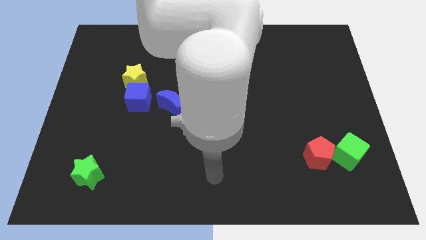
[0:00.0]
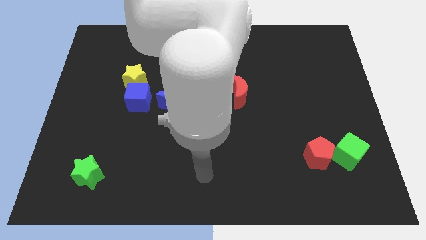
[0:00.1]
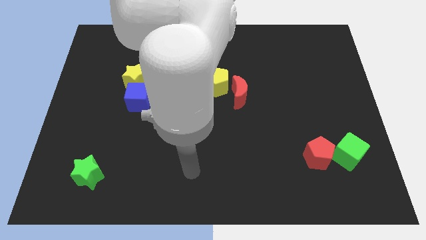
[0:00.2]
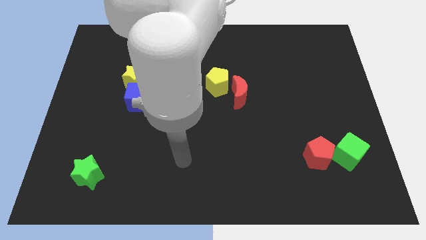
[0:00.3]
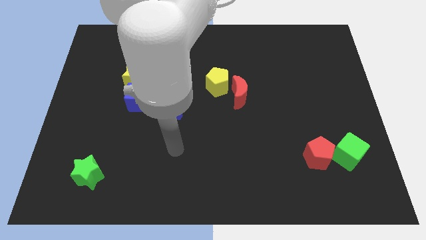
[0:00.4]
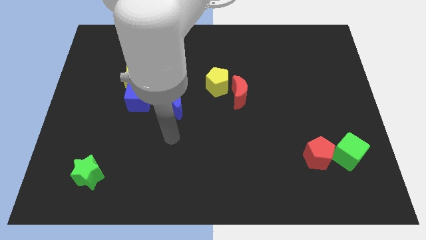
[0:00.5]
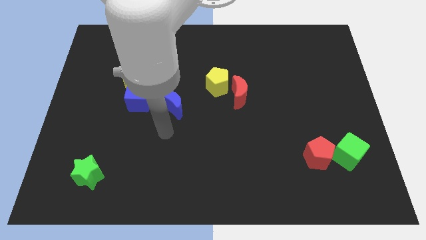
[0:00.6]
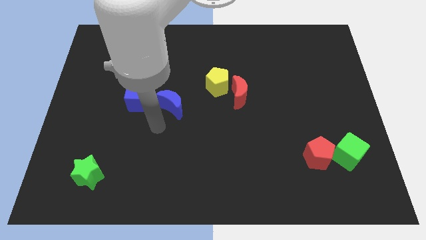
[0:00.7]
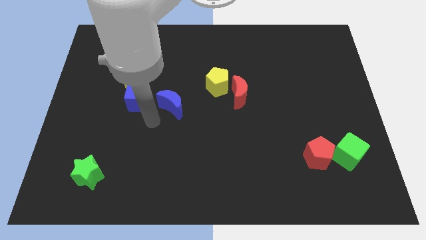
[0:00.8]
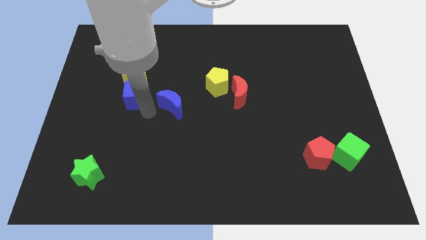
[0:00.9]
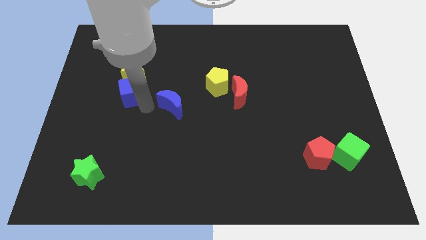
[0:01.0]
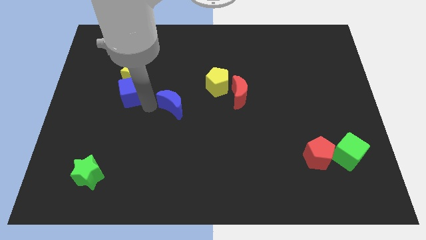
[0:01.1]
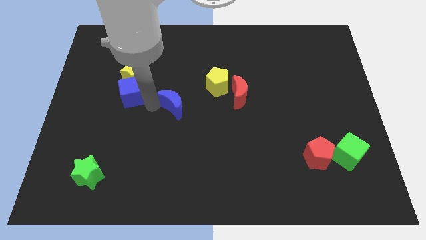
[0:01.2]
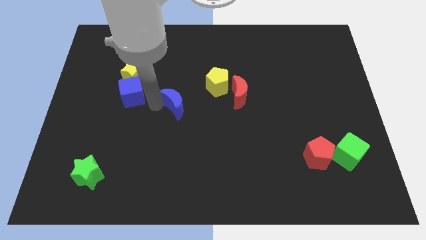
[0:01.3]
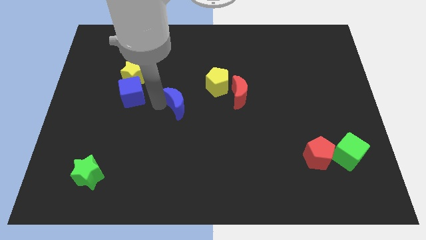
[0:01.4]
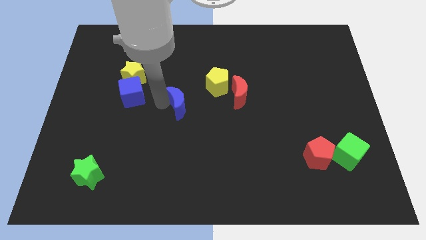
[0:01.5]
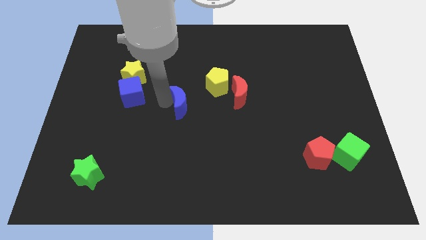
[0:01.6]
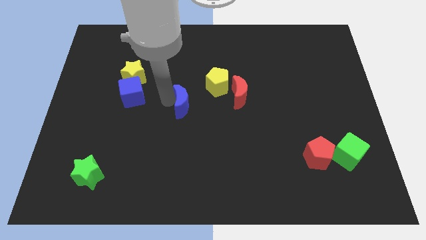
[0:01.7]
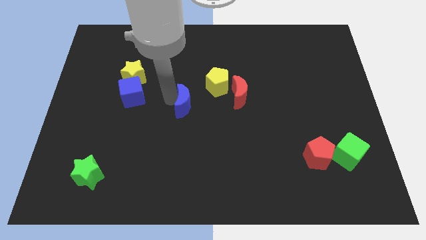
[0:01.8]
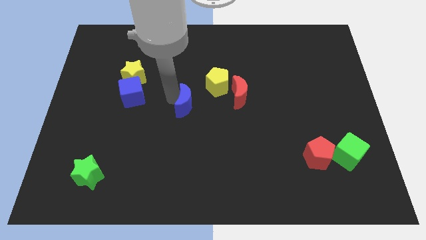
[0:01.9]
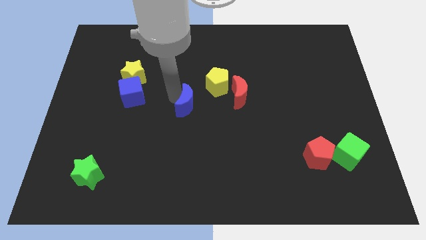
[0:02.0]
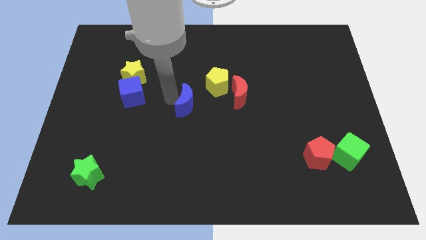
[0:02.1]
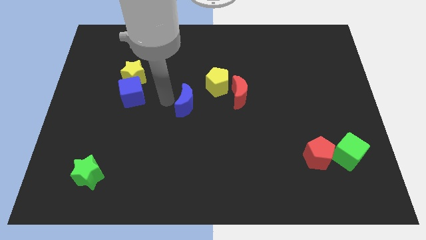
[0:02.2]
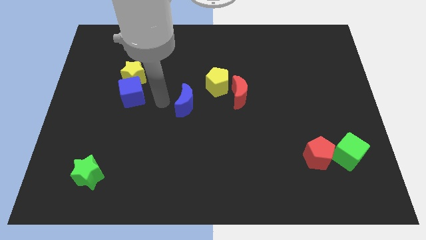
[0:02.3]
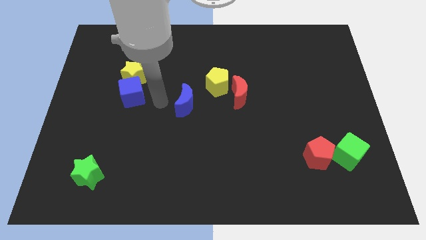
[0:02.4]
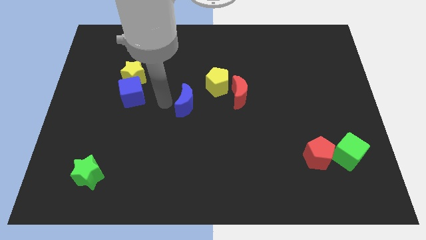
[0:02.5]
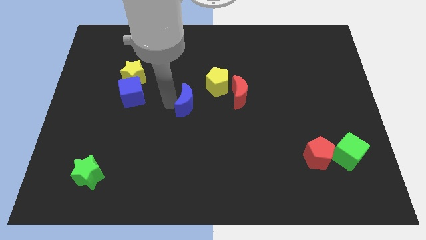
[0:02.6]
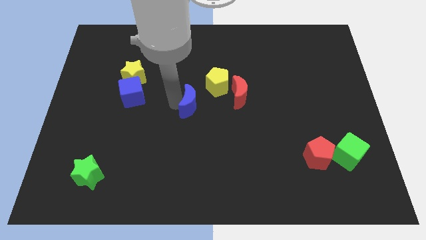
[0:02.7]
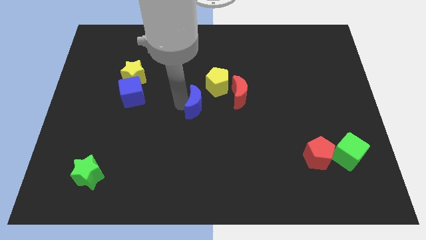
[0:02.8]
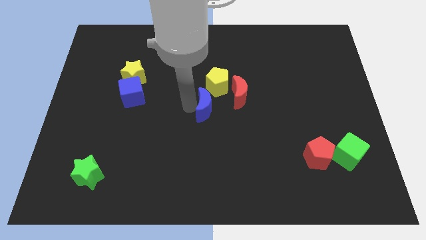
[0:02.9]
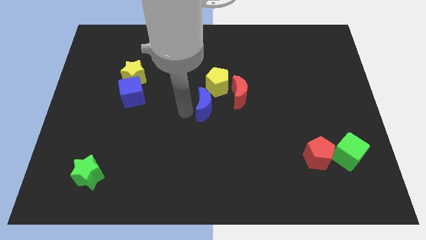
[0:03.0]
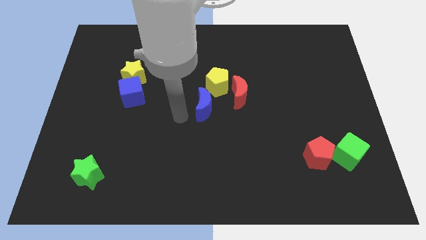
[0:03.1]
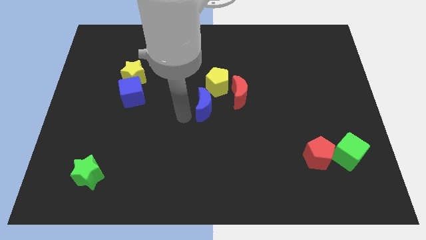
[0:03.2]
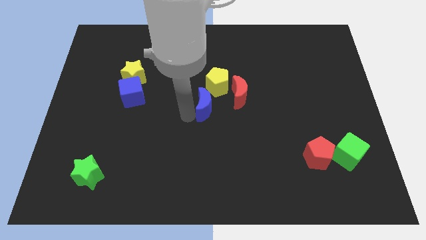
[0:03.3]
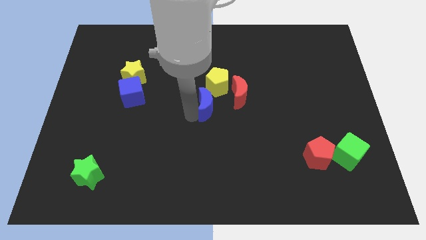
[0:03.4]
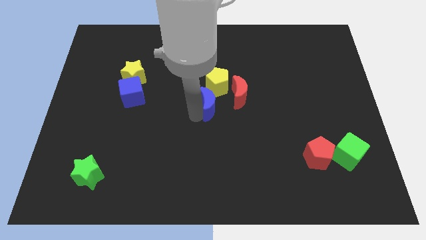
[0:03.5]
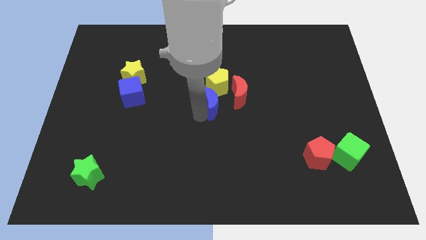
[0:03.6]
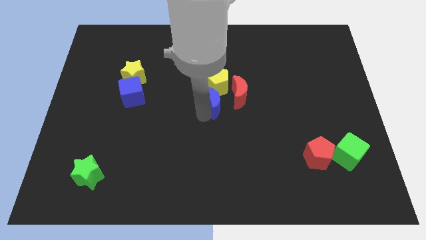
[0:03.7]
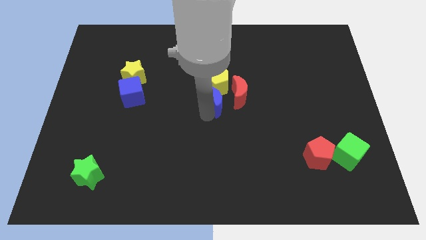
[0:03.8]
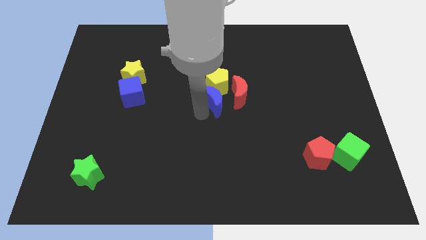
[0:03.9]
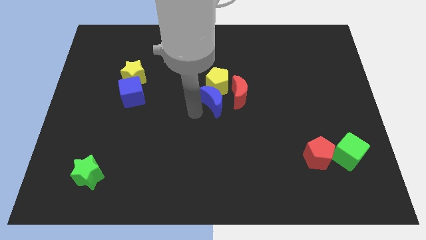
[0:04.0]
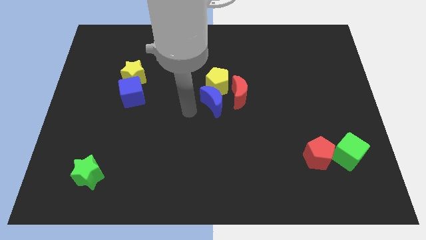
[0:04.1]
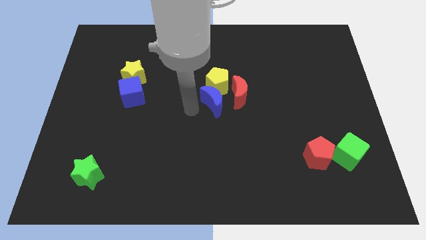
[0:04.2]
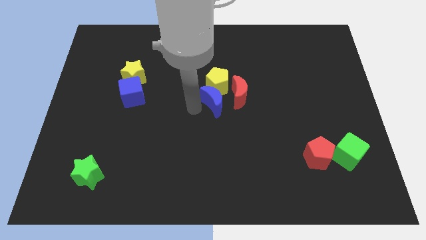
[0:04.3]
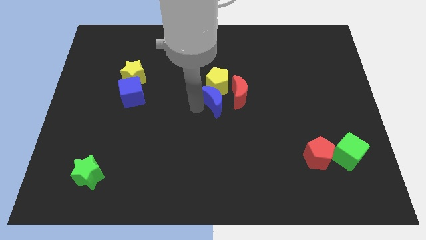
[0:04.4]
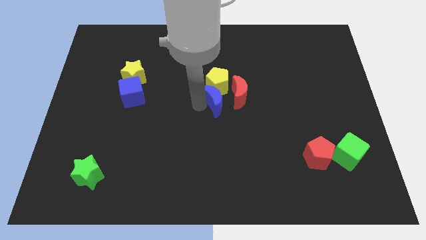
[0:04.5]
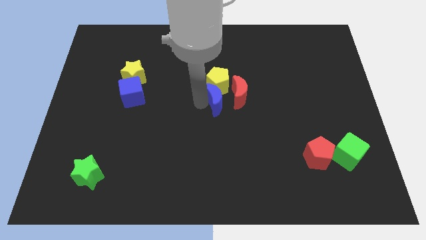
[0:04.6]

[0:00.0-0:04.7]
slide the blue moon towards the red moon

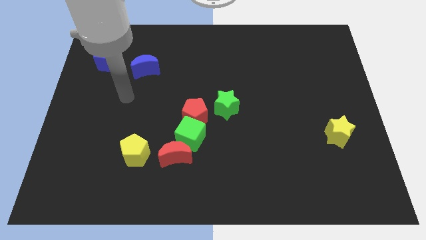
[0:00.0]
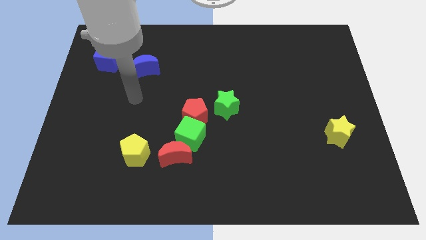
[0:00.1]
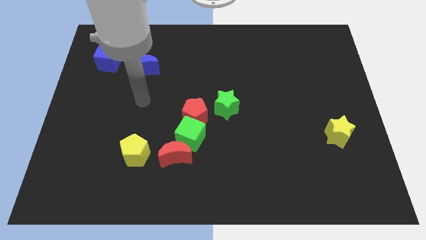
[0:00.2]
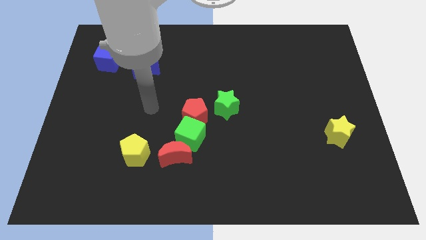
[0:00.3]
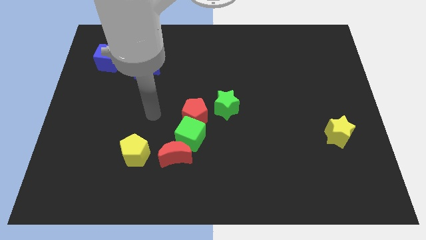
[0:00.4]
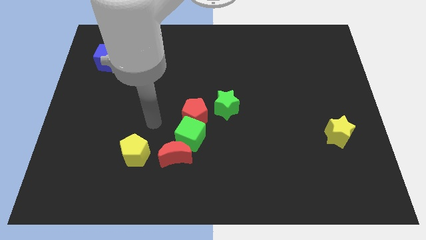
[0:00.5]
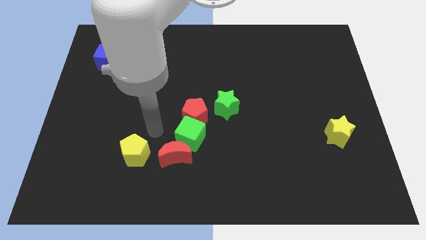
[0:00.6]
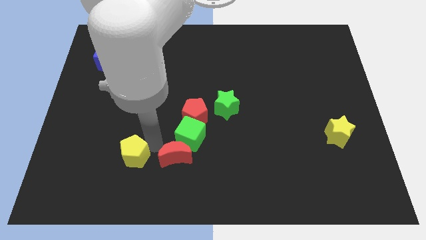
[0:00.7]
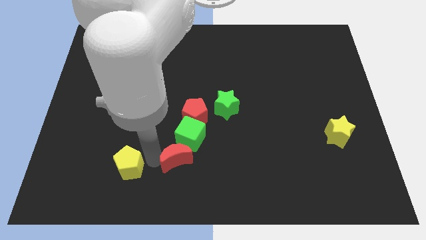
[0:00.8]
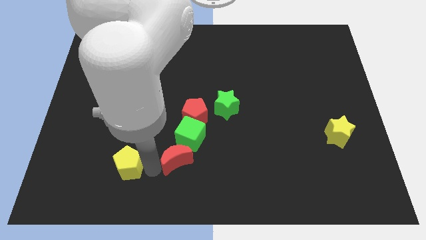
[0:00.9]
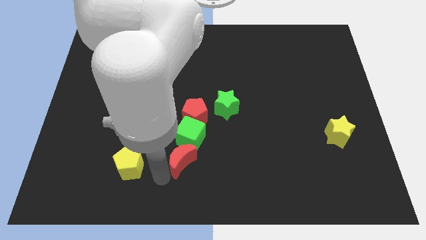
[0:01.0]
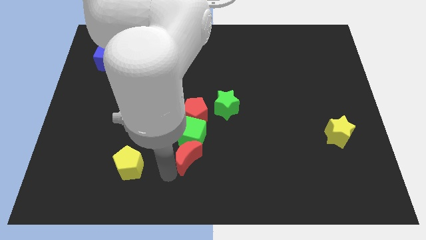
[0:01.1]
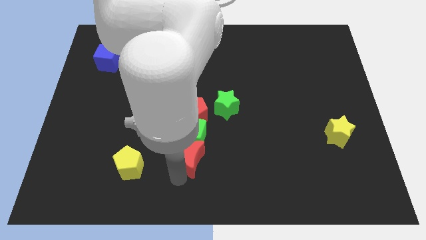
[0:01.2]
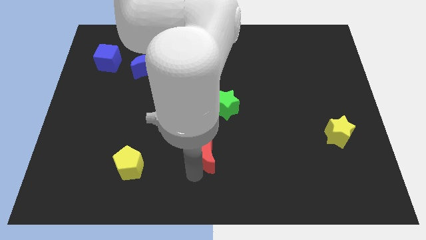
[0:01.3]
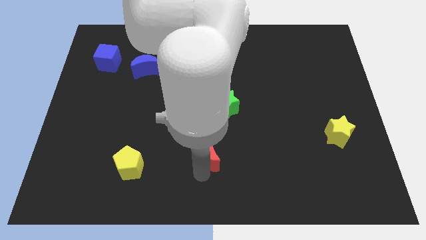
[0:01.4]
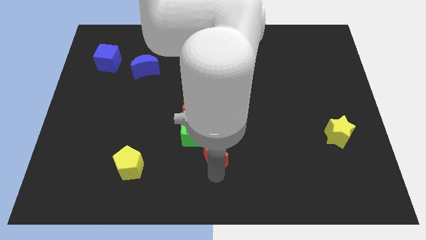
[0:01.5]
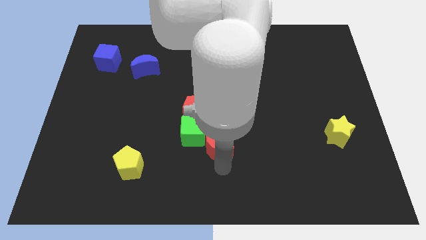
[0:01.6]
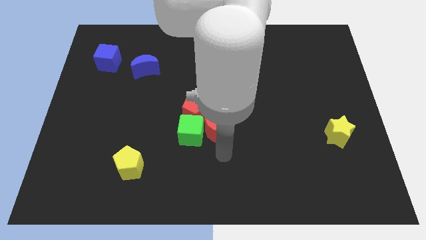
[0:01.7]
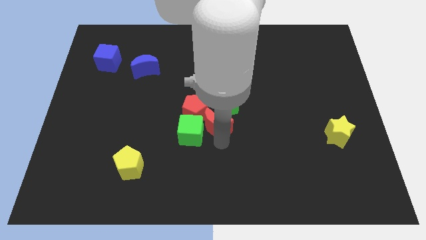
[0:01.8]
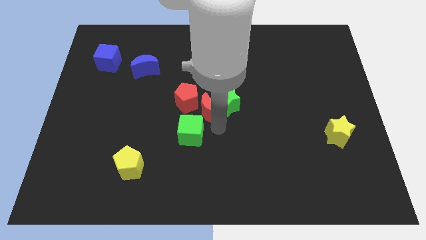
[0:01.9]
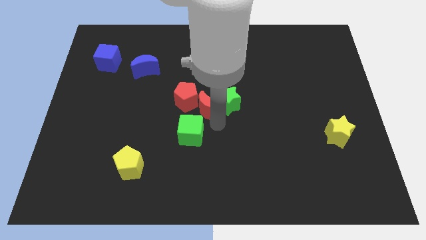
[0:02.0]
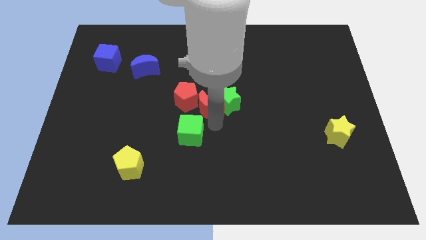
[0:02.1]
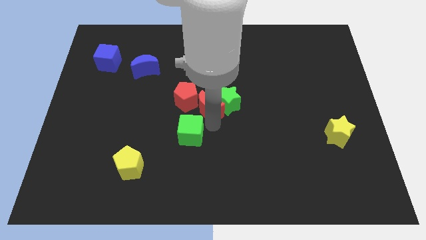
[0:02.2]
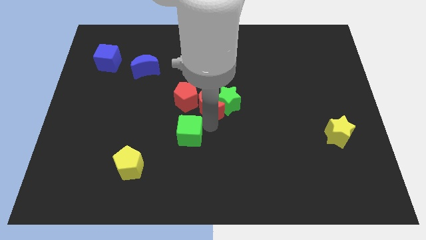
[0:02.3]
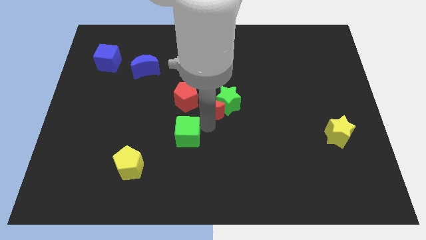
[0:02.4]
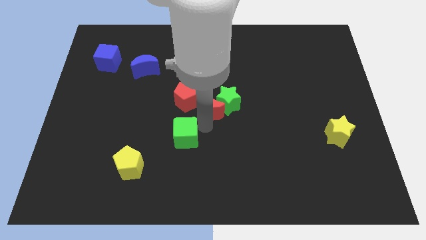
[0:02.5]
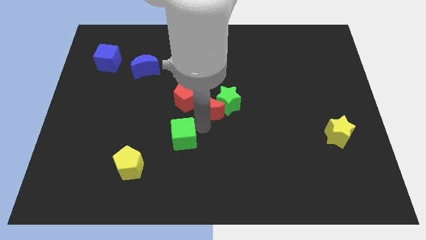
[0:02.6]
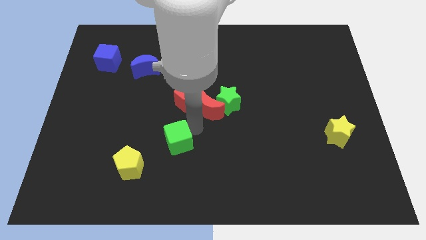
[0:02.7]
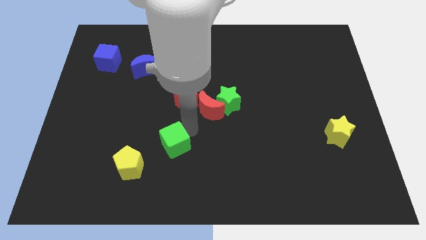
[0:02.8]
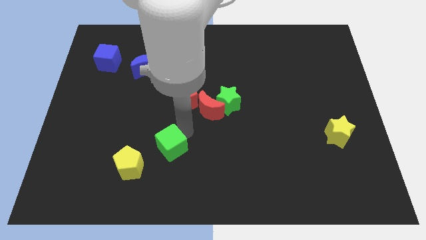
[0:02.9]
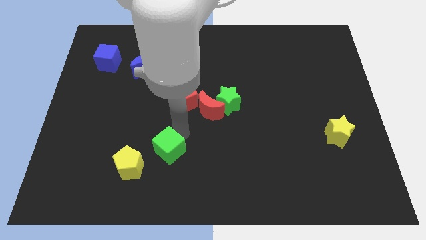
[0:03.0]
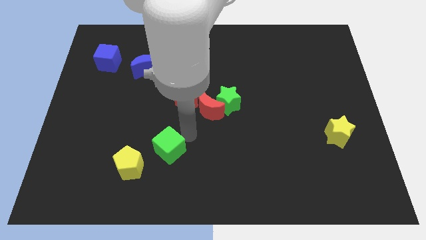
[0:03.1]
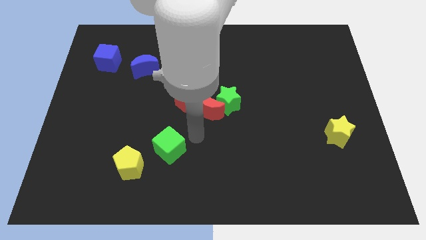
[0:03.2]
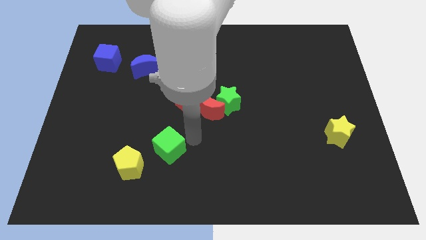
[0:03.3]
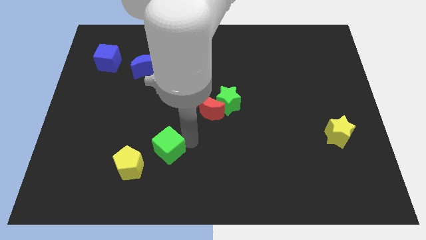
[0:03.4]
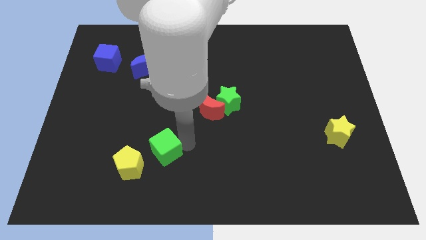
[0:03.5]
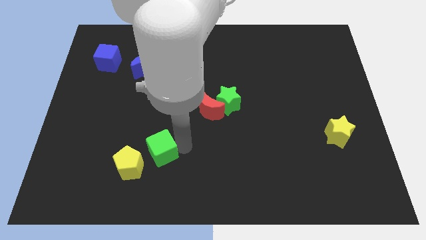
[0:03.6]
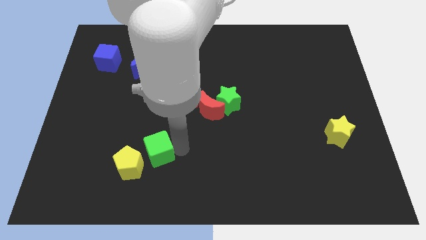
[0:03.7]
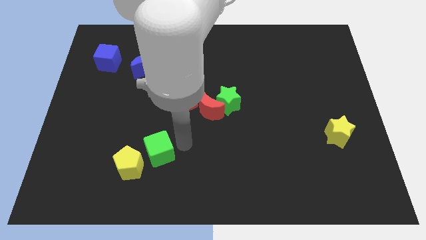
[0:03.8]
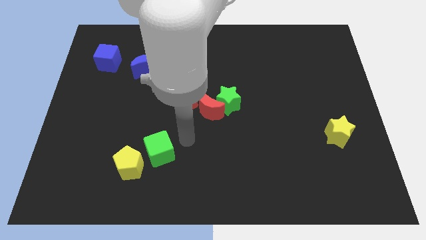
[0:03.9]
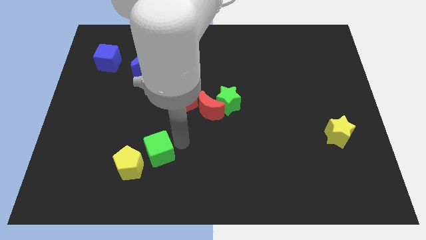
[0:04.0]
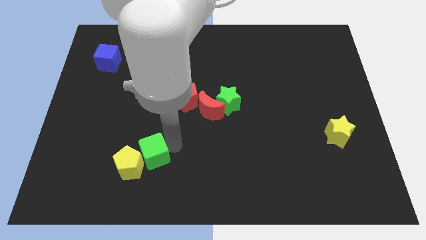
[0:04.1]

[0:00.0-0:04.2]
put the green cube close to the yellow pentagon
